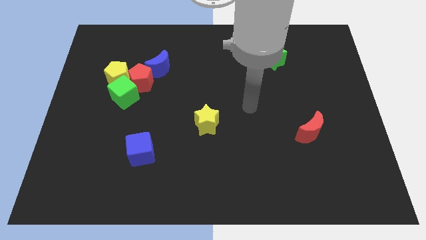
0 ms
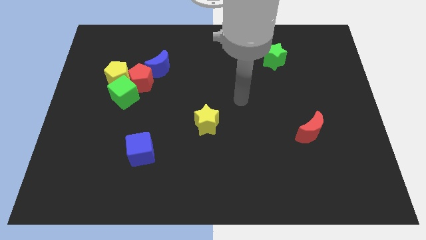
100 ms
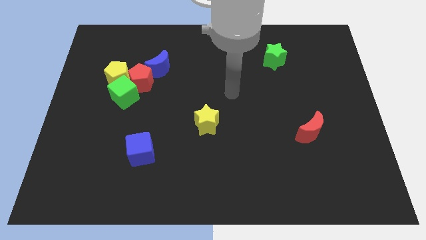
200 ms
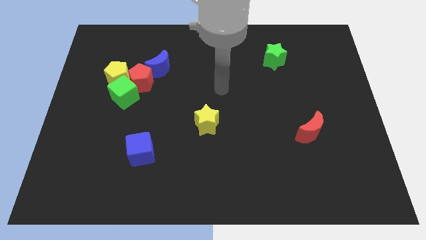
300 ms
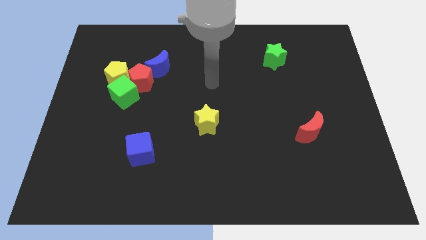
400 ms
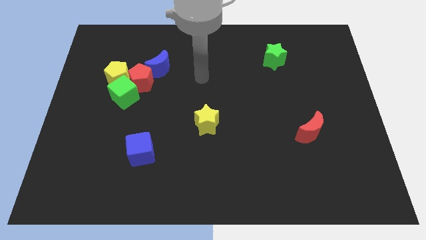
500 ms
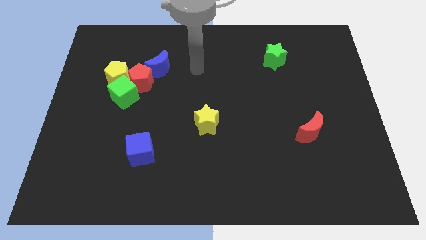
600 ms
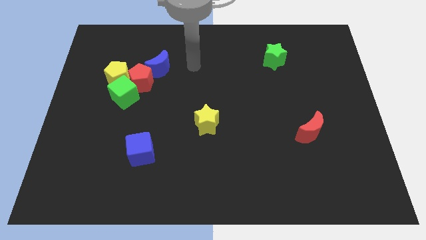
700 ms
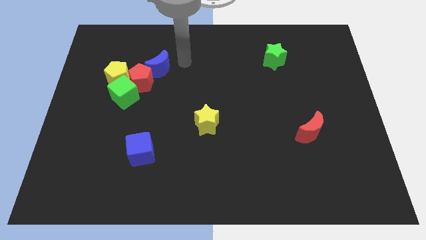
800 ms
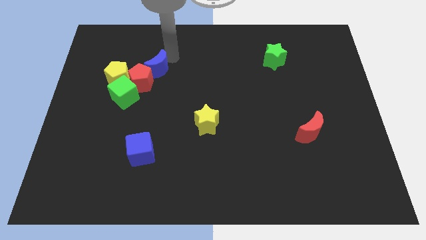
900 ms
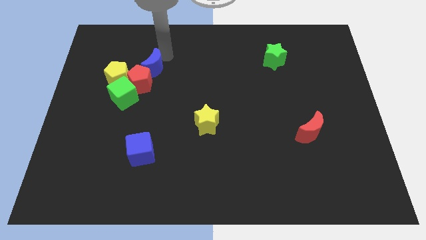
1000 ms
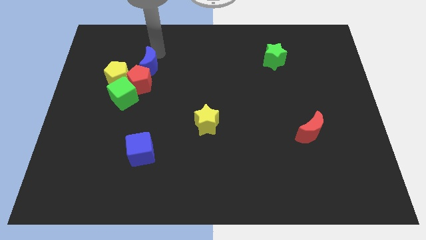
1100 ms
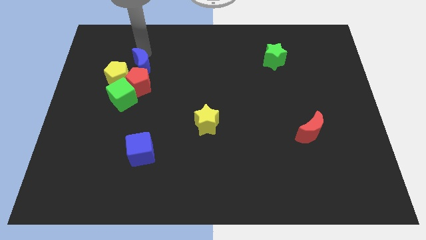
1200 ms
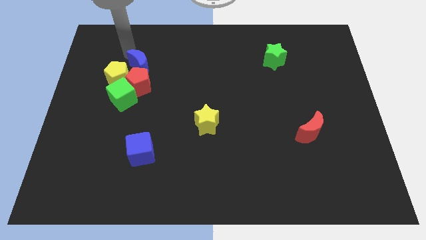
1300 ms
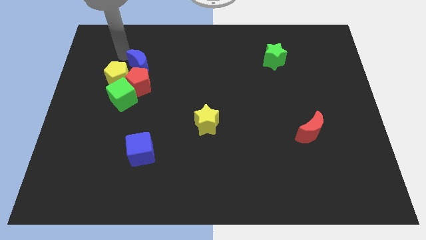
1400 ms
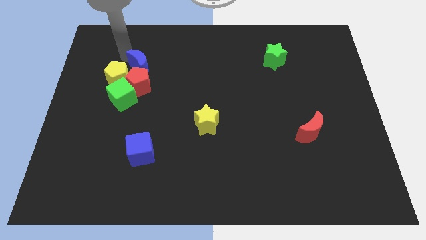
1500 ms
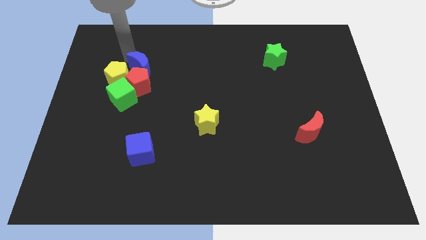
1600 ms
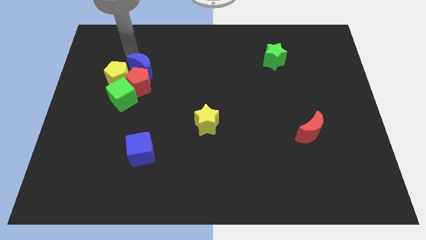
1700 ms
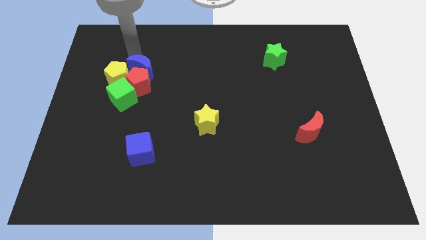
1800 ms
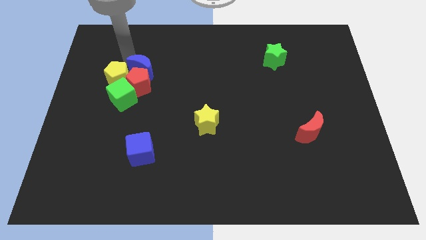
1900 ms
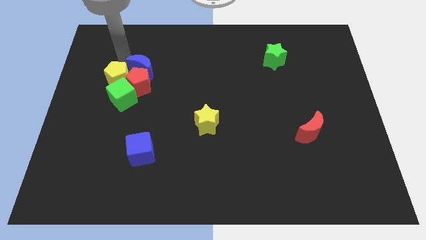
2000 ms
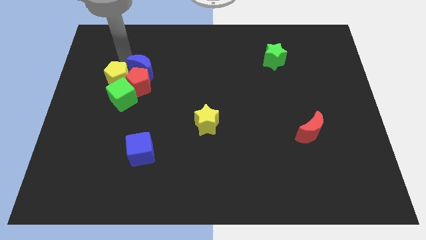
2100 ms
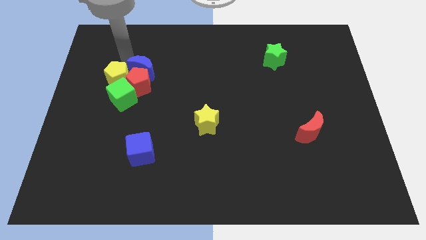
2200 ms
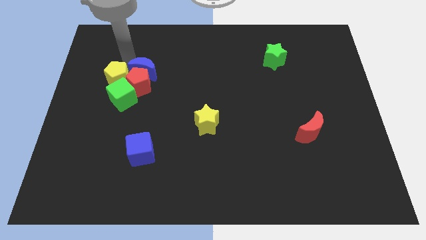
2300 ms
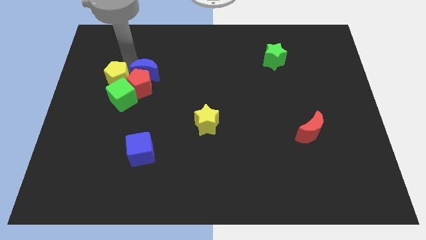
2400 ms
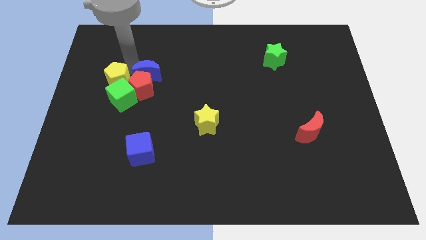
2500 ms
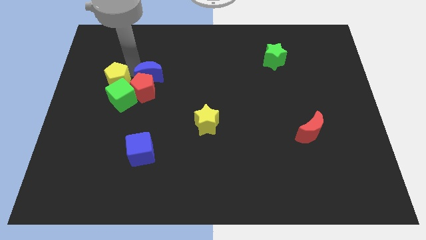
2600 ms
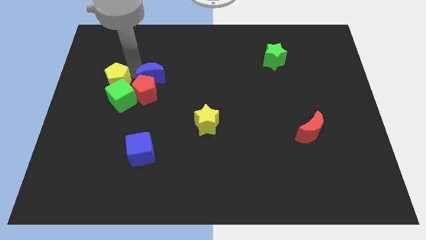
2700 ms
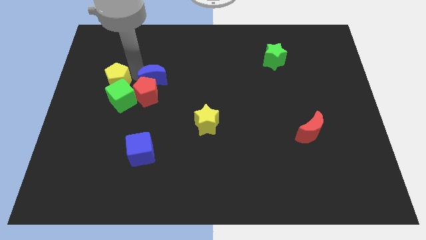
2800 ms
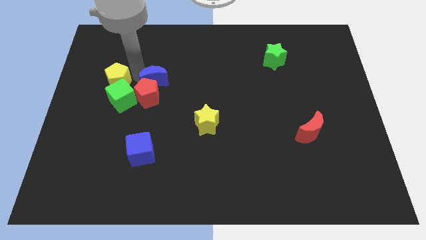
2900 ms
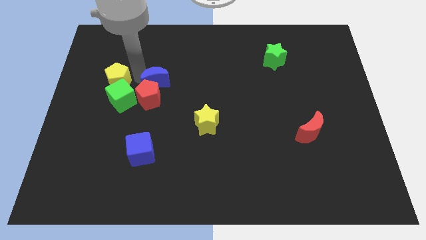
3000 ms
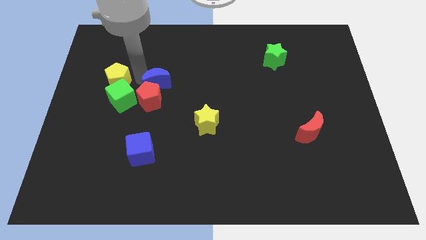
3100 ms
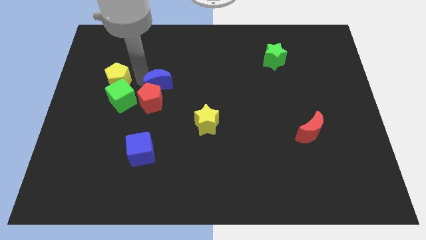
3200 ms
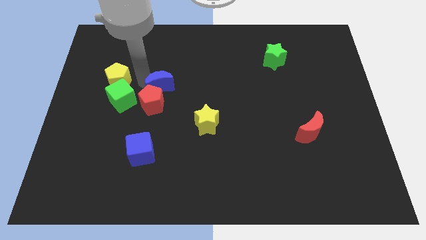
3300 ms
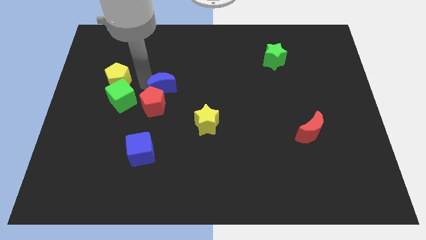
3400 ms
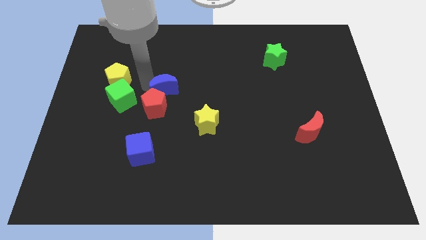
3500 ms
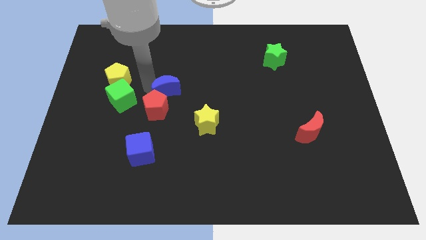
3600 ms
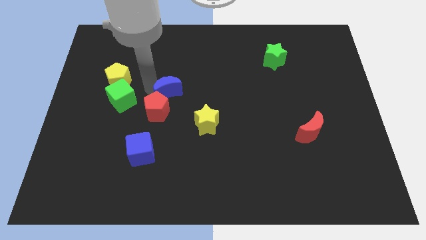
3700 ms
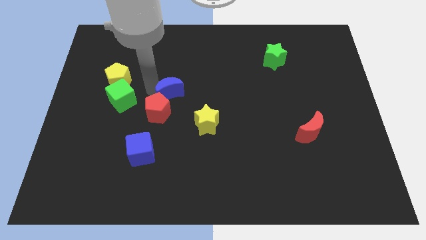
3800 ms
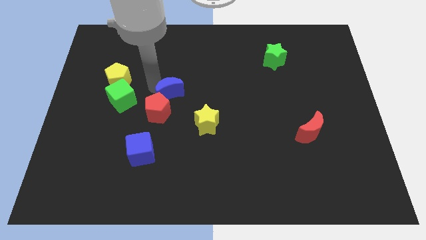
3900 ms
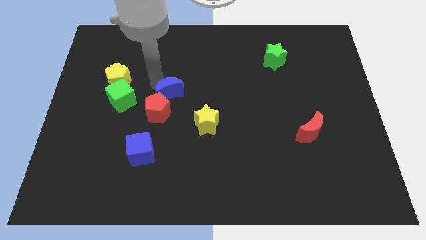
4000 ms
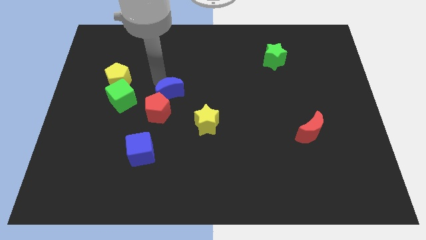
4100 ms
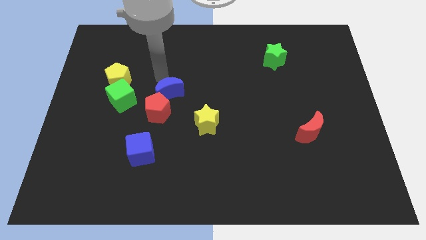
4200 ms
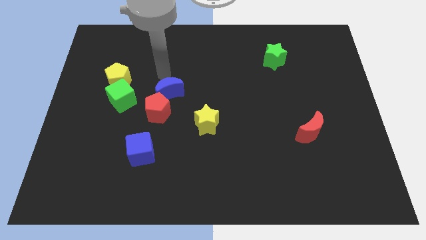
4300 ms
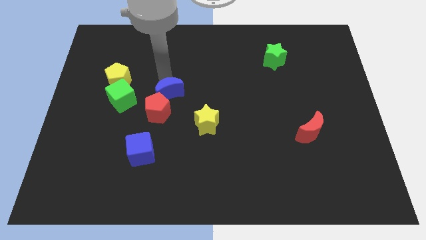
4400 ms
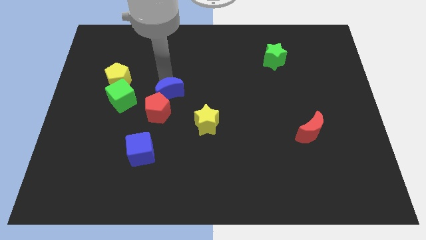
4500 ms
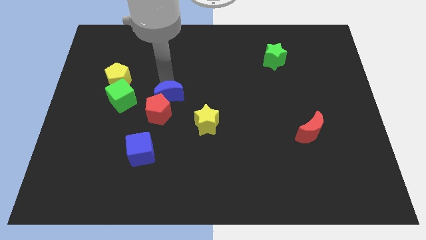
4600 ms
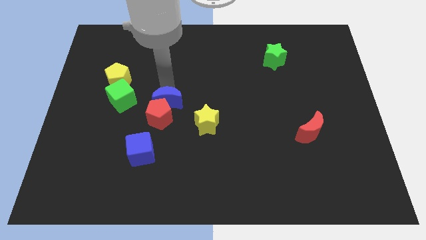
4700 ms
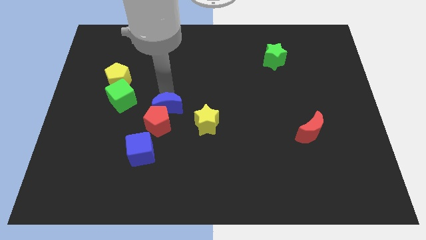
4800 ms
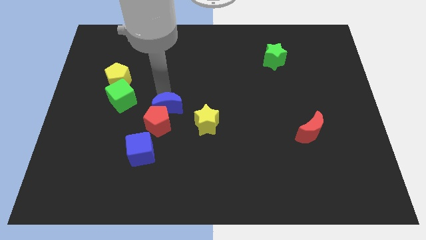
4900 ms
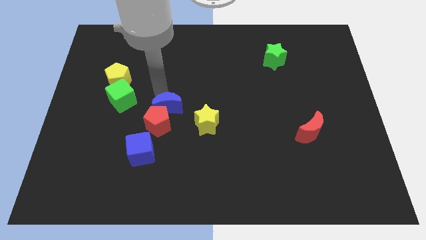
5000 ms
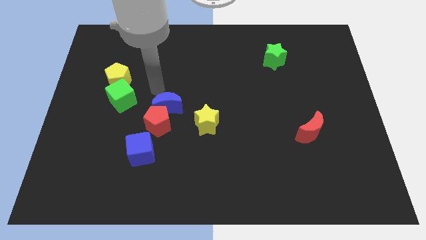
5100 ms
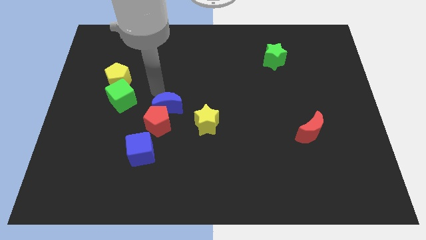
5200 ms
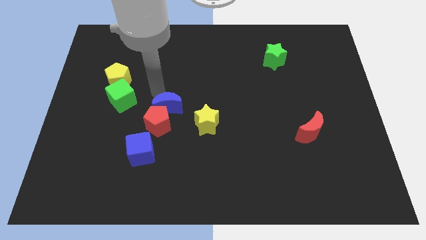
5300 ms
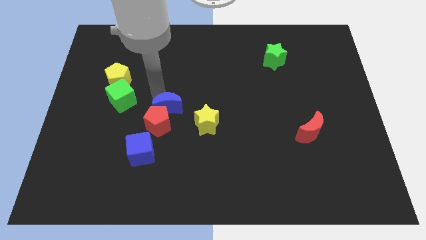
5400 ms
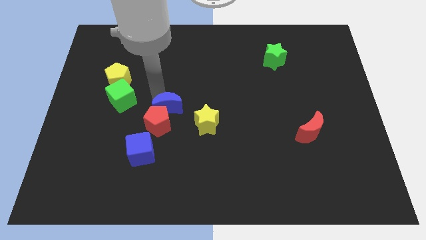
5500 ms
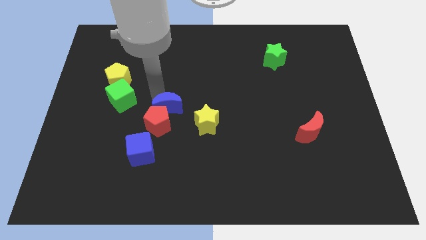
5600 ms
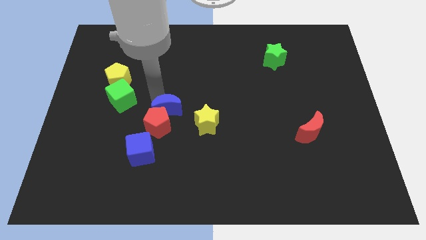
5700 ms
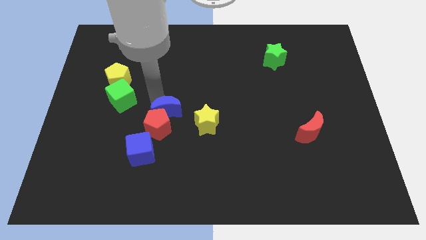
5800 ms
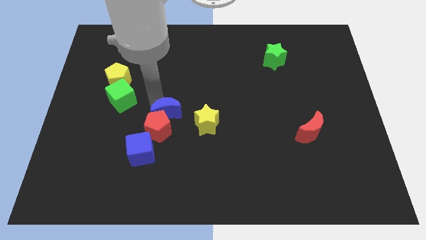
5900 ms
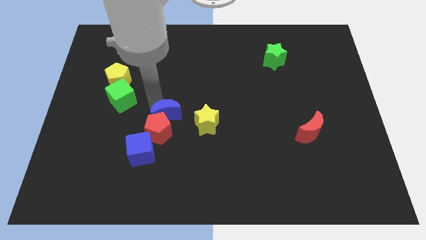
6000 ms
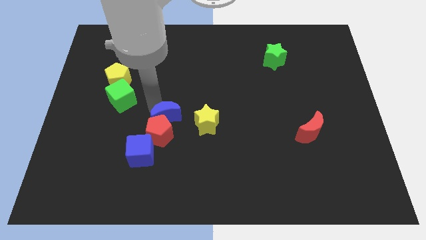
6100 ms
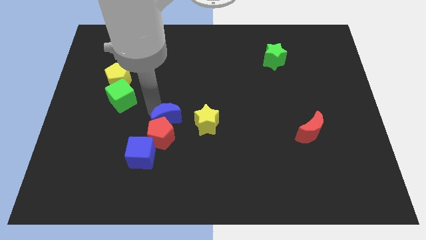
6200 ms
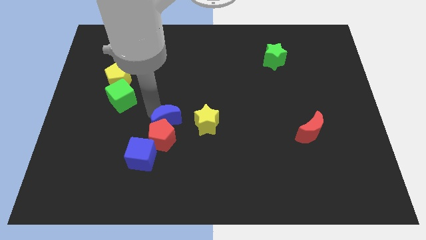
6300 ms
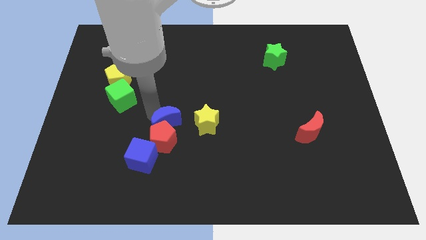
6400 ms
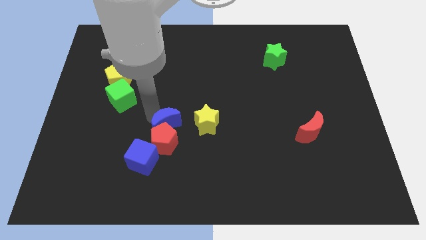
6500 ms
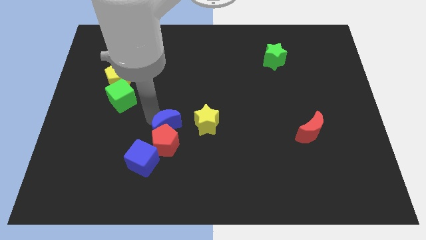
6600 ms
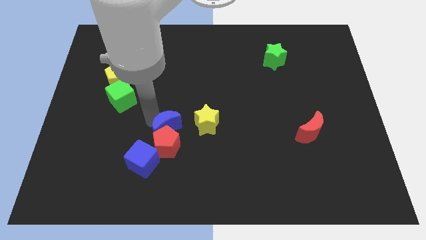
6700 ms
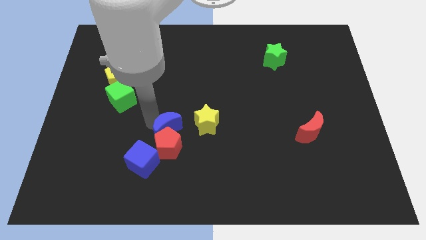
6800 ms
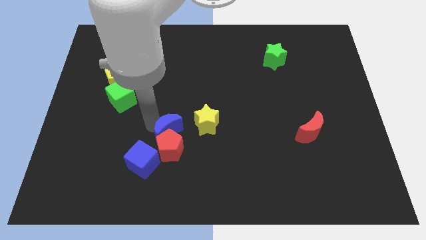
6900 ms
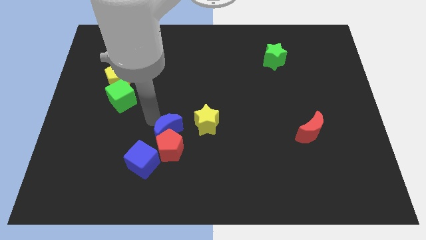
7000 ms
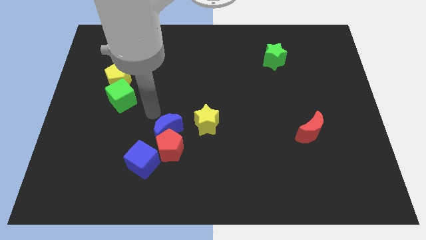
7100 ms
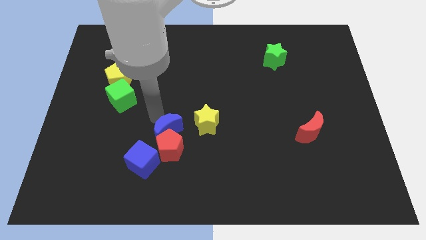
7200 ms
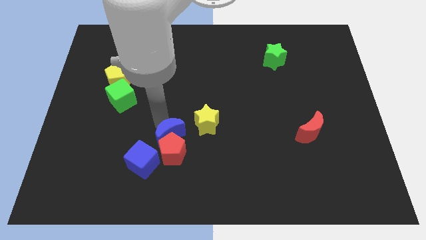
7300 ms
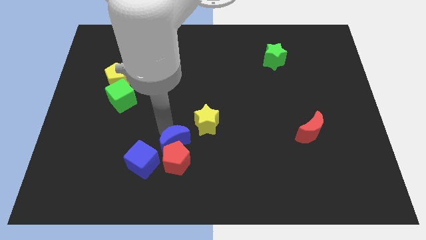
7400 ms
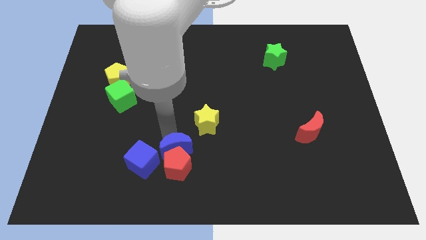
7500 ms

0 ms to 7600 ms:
push the blue moon right of the blue cube
